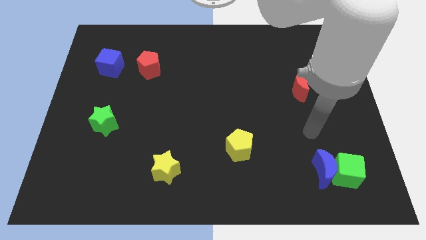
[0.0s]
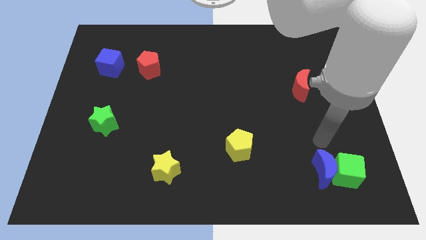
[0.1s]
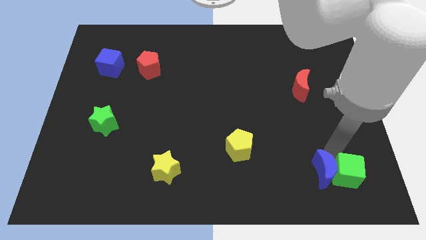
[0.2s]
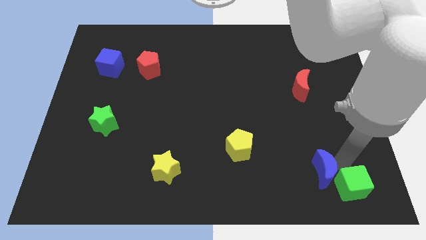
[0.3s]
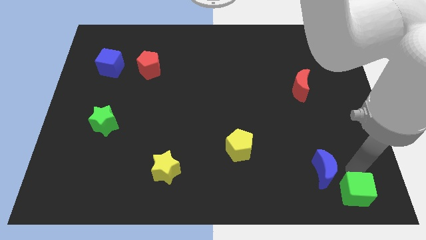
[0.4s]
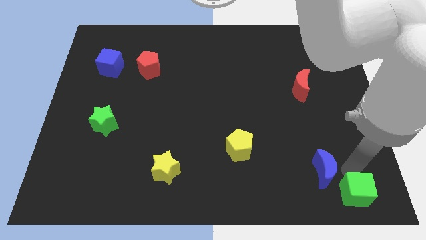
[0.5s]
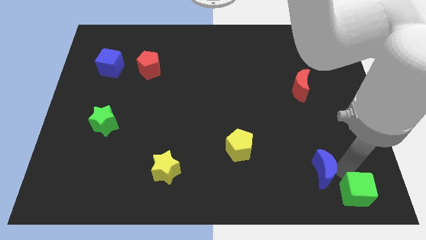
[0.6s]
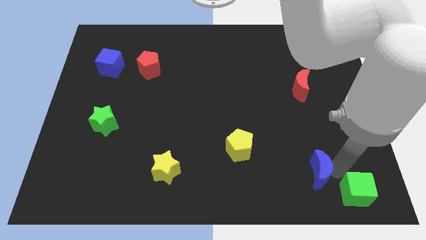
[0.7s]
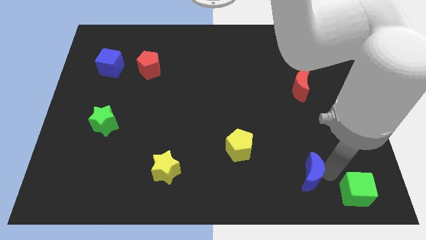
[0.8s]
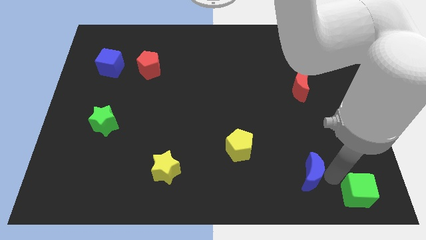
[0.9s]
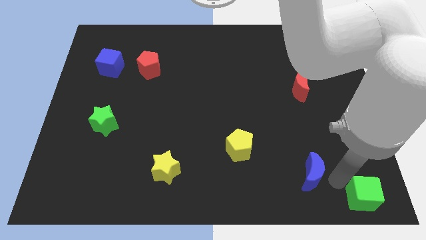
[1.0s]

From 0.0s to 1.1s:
move the blue moon away from the green cube

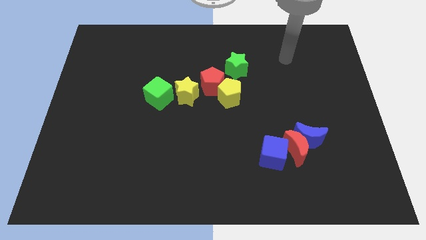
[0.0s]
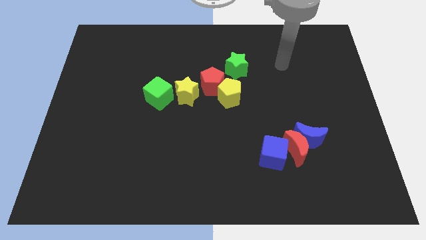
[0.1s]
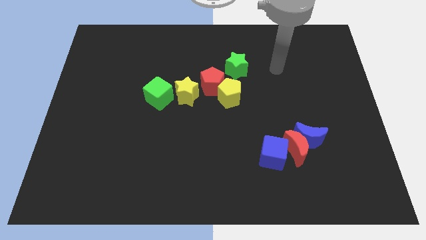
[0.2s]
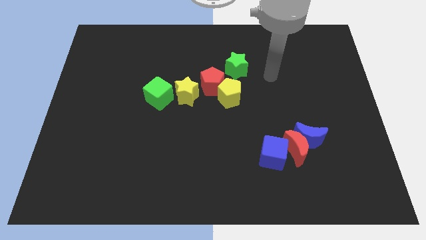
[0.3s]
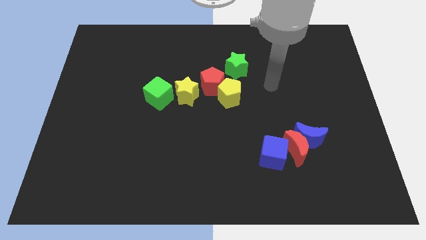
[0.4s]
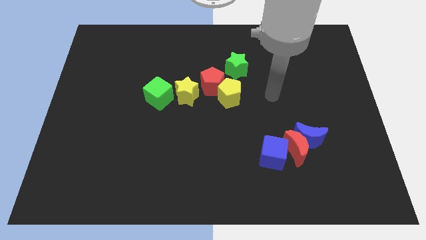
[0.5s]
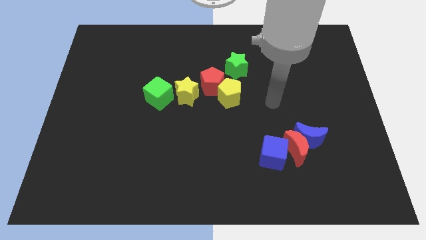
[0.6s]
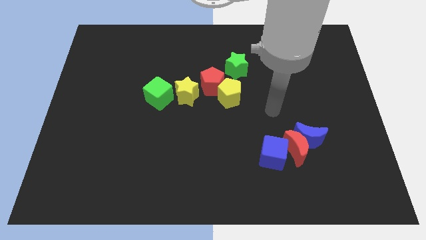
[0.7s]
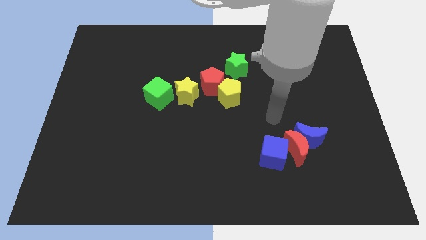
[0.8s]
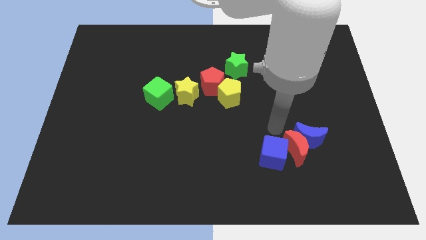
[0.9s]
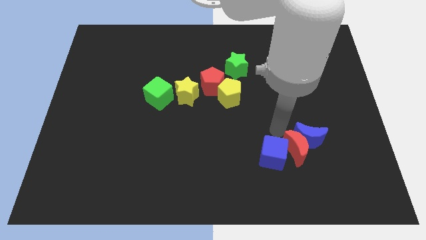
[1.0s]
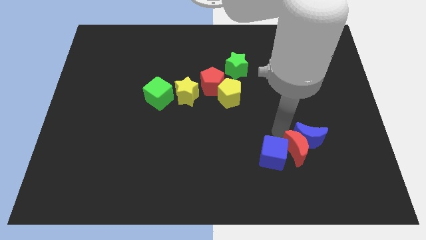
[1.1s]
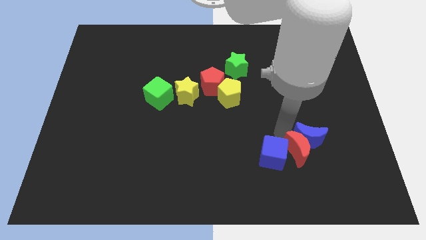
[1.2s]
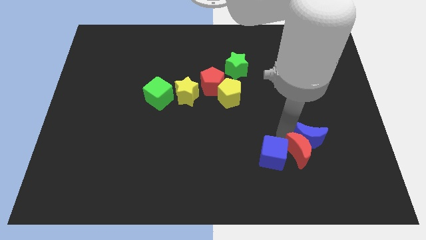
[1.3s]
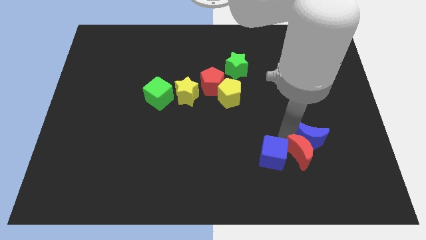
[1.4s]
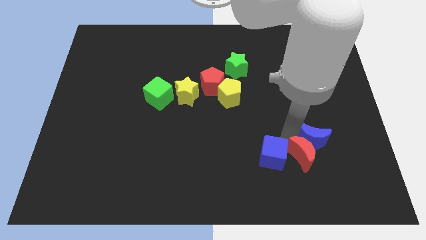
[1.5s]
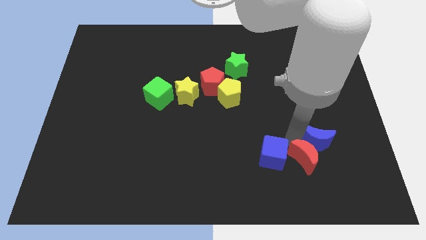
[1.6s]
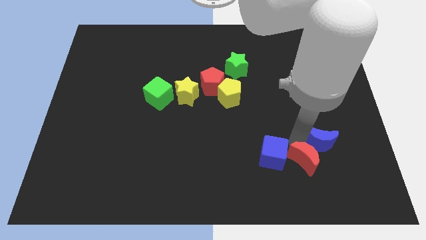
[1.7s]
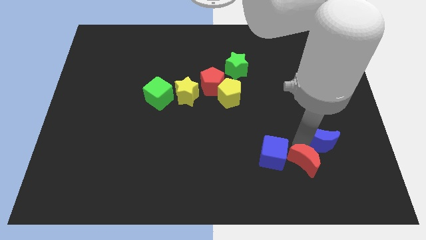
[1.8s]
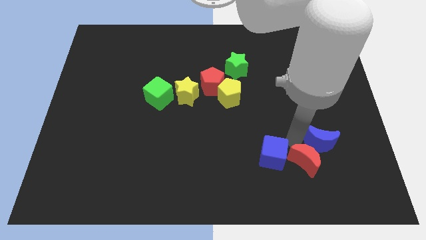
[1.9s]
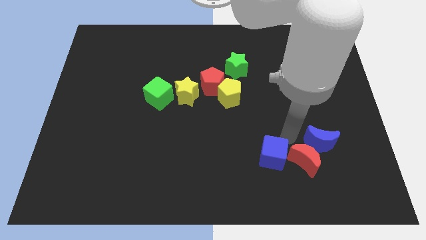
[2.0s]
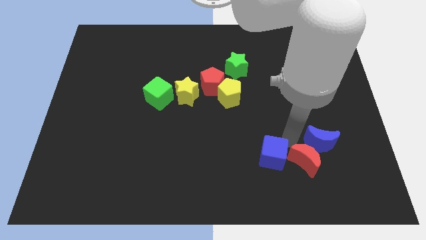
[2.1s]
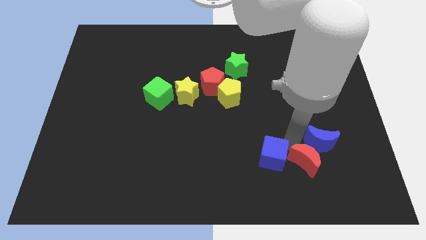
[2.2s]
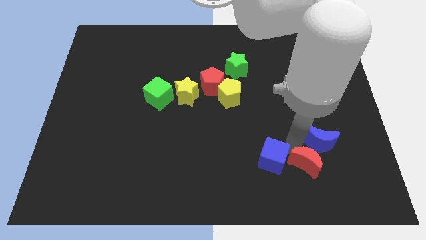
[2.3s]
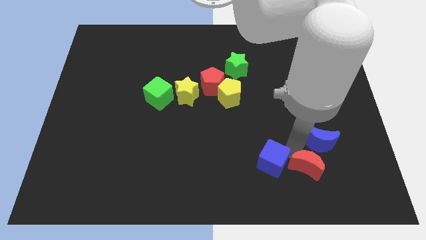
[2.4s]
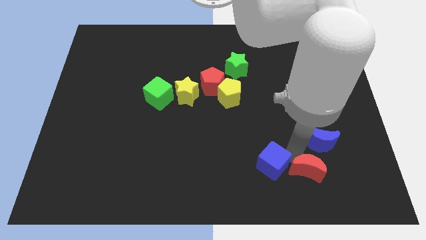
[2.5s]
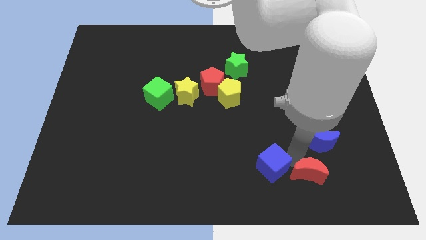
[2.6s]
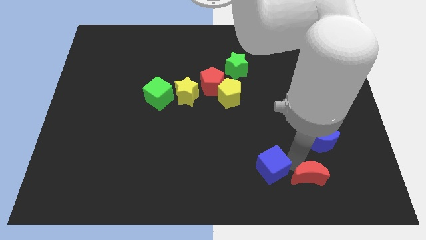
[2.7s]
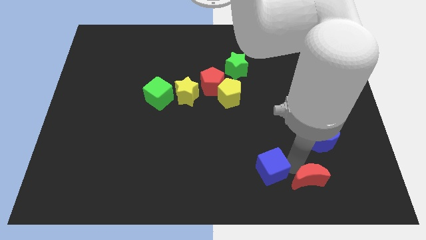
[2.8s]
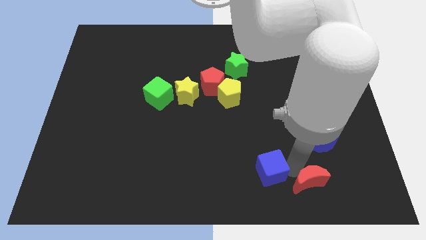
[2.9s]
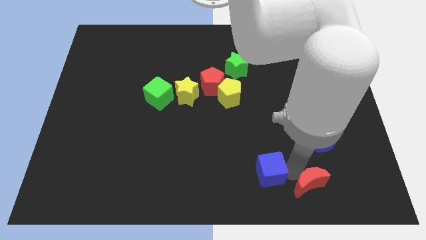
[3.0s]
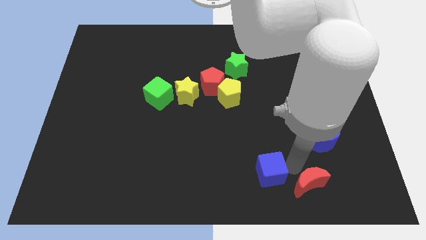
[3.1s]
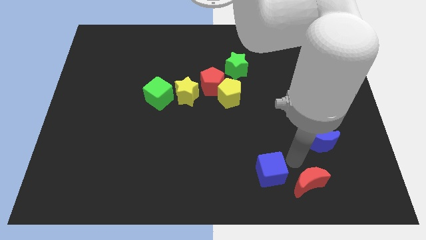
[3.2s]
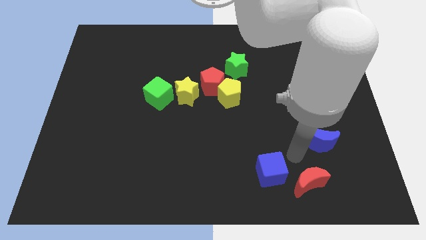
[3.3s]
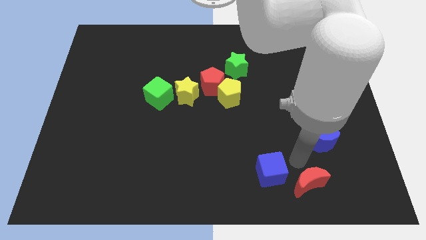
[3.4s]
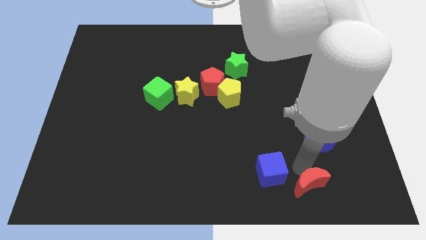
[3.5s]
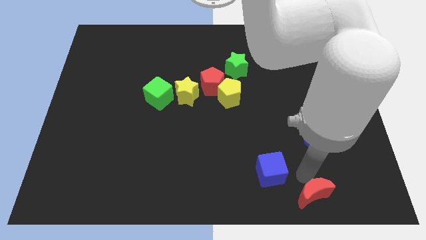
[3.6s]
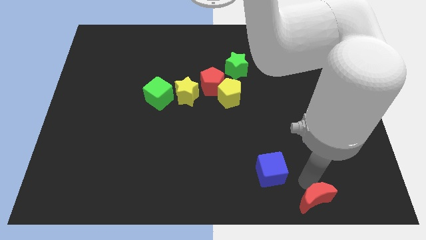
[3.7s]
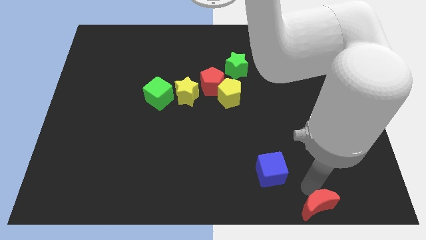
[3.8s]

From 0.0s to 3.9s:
move the red moon away from the blue moon and blue cube

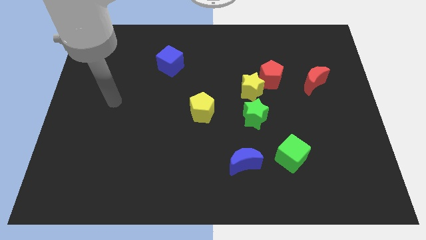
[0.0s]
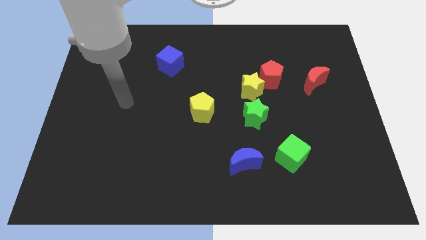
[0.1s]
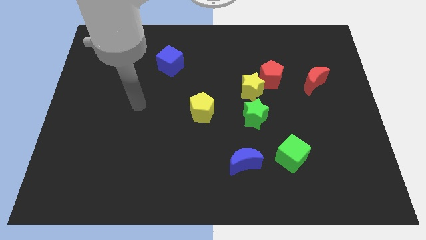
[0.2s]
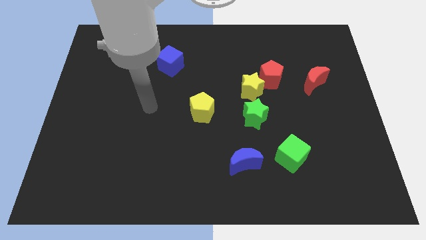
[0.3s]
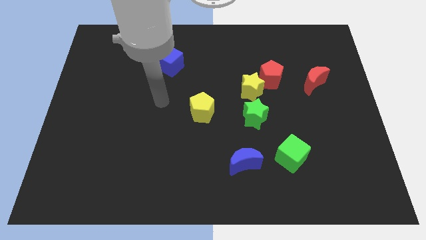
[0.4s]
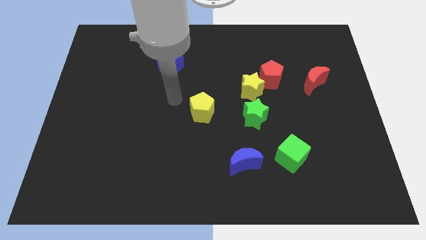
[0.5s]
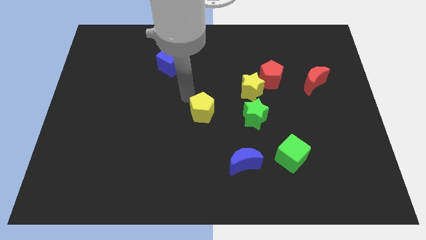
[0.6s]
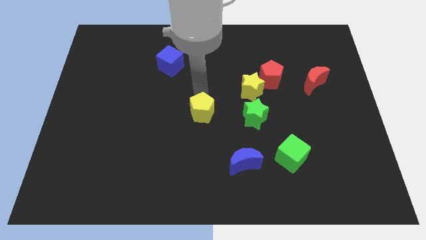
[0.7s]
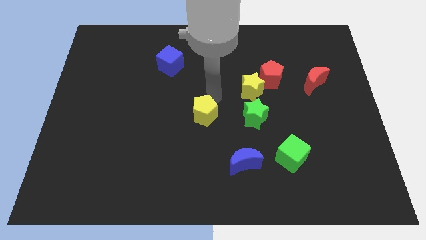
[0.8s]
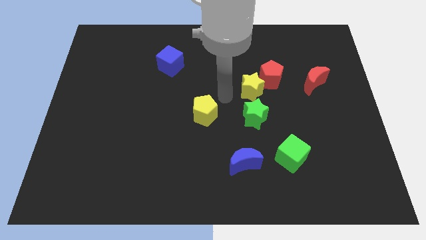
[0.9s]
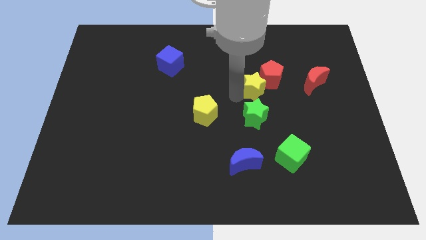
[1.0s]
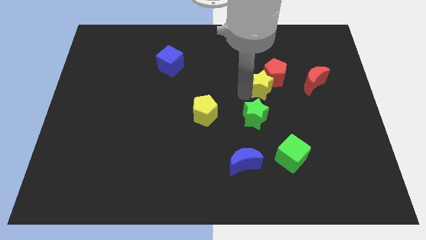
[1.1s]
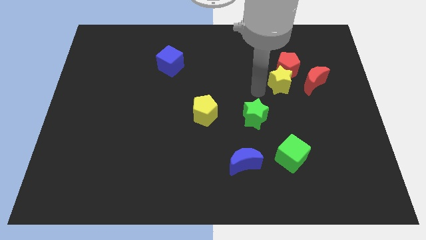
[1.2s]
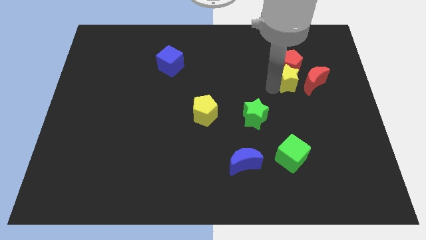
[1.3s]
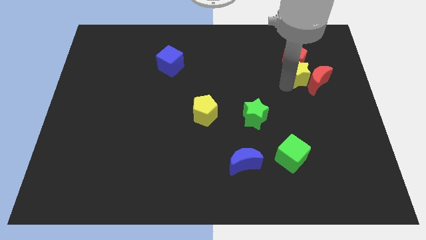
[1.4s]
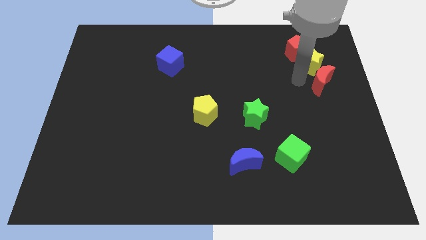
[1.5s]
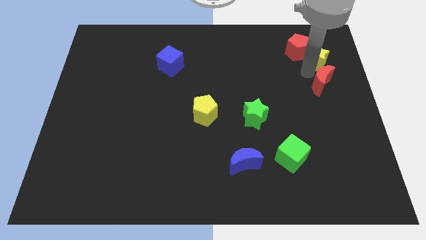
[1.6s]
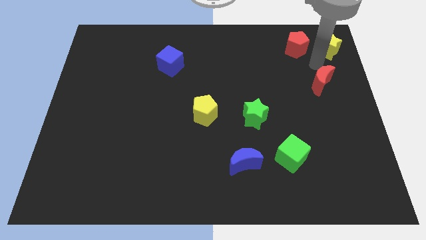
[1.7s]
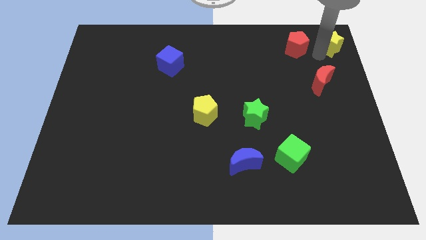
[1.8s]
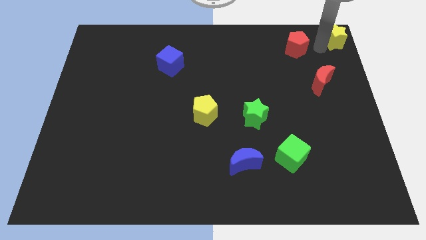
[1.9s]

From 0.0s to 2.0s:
pull the red pentagon apart from the yellow star

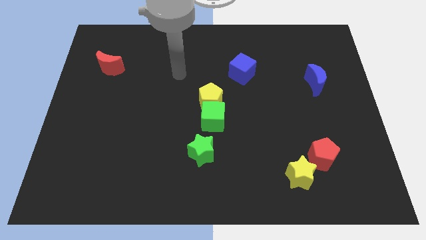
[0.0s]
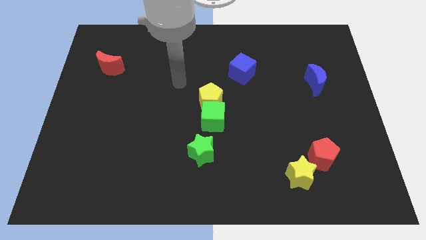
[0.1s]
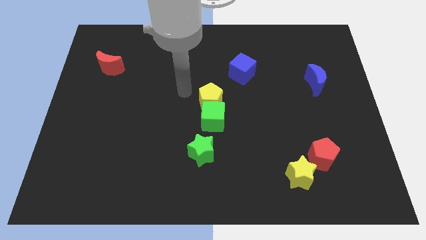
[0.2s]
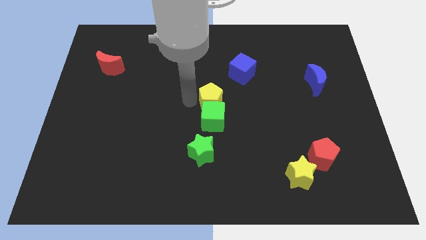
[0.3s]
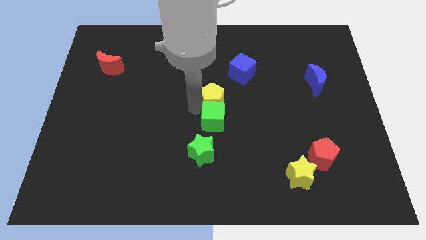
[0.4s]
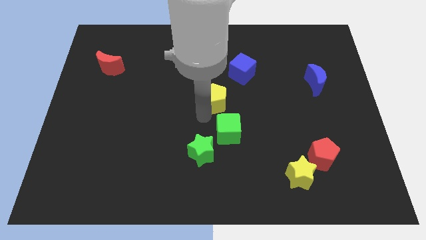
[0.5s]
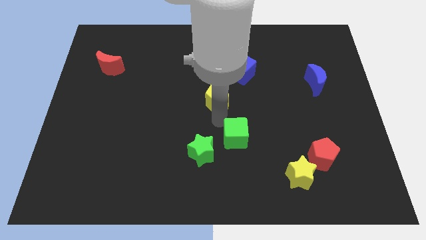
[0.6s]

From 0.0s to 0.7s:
move the yellow pentagon away from the green cube

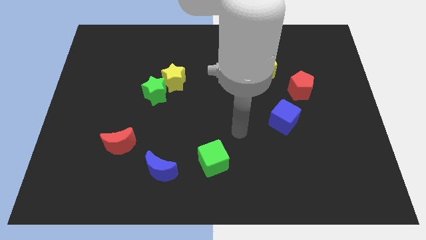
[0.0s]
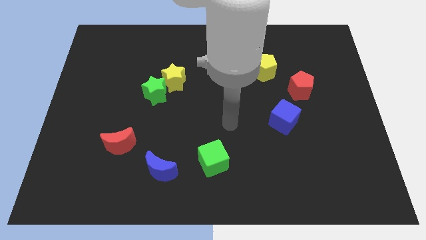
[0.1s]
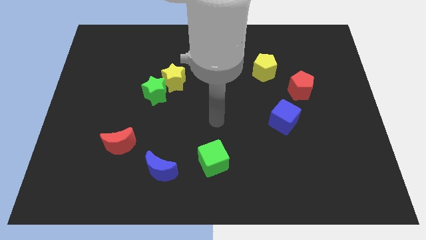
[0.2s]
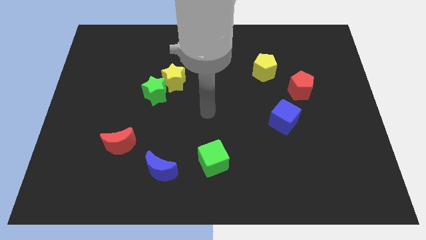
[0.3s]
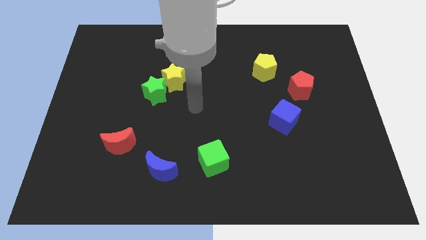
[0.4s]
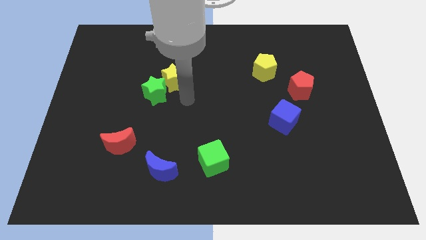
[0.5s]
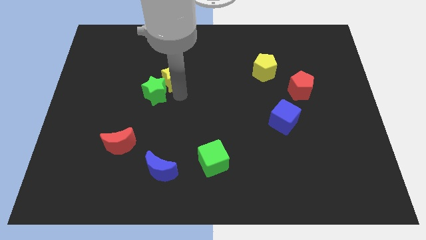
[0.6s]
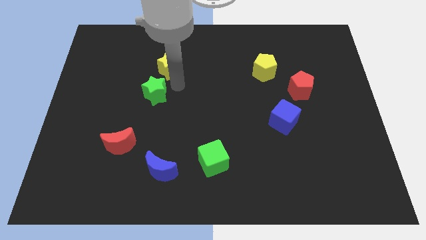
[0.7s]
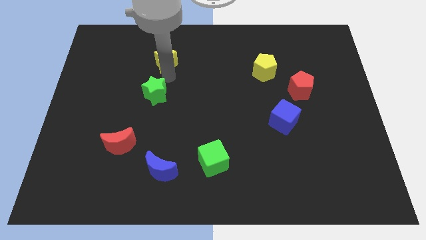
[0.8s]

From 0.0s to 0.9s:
move the green star away from the yellow star

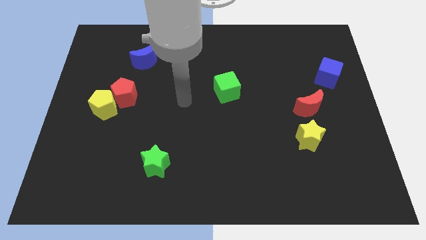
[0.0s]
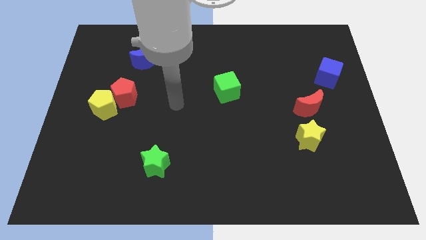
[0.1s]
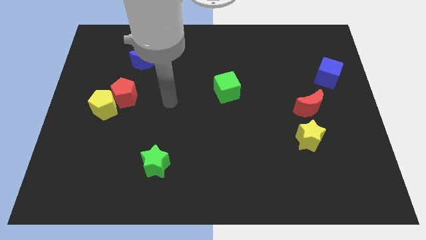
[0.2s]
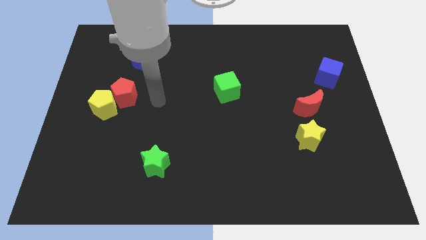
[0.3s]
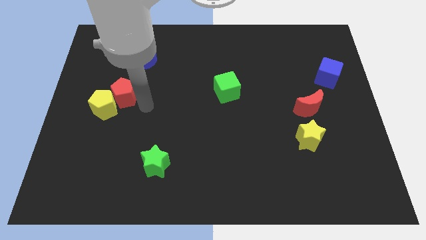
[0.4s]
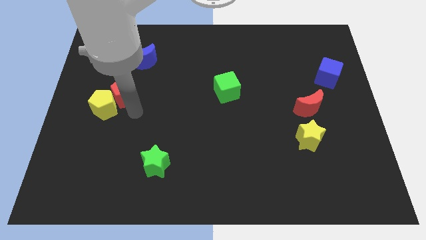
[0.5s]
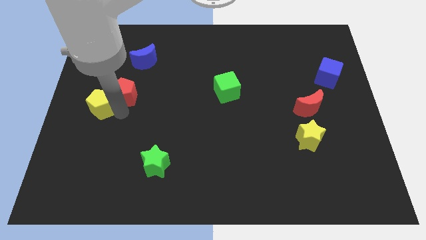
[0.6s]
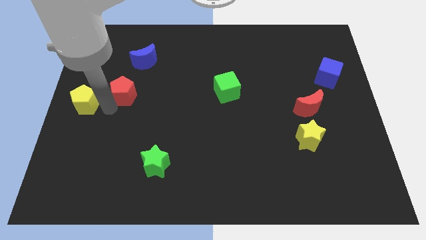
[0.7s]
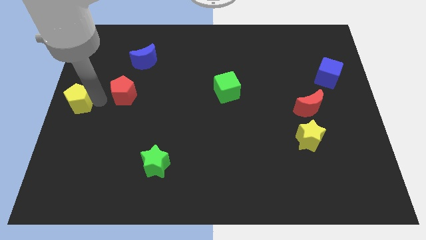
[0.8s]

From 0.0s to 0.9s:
separate the red pentagon from the yellow pentagon
